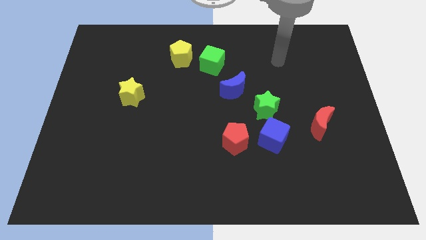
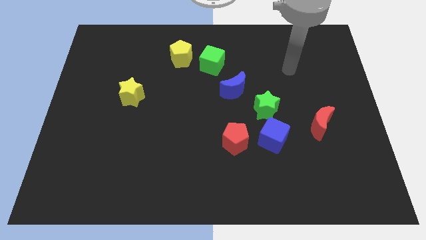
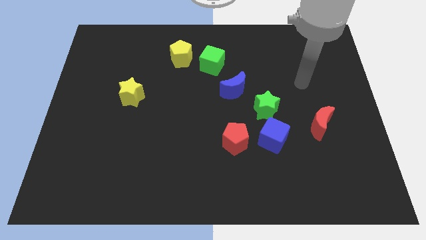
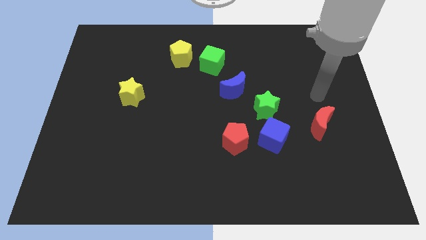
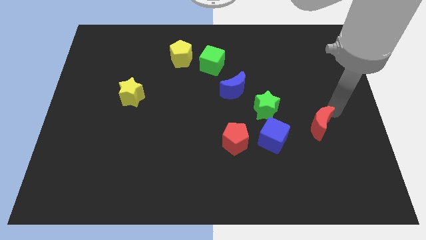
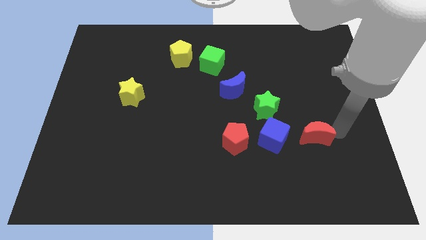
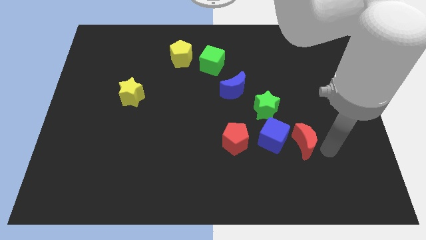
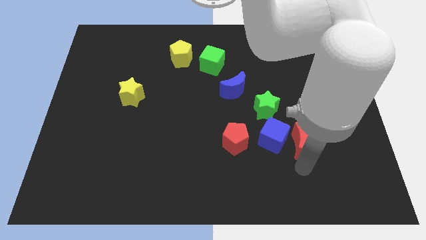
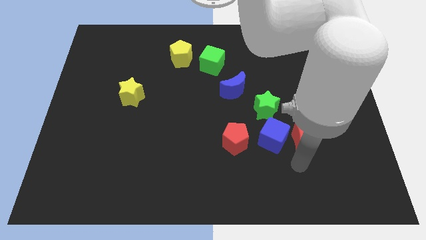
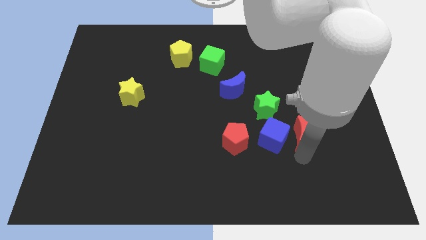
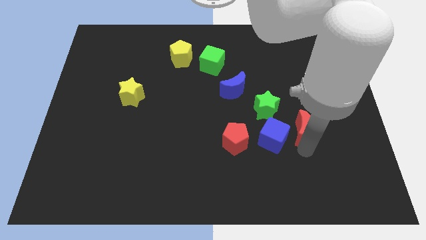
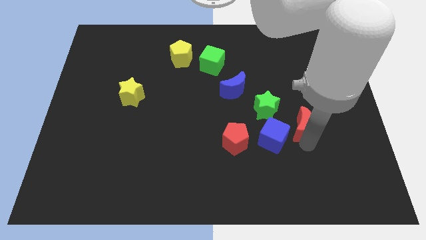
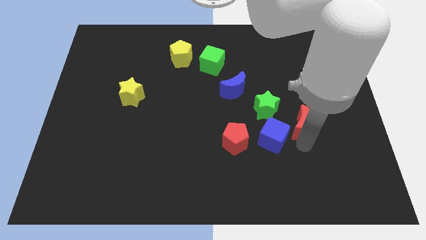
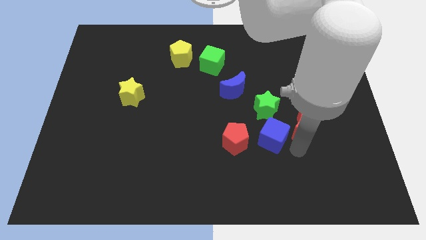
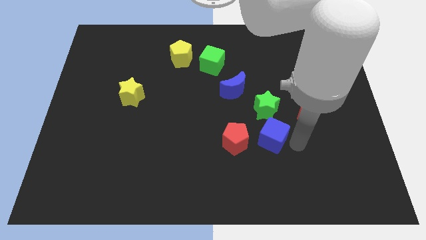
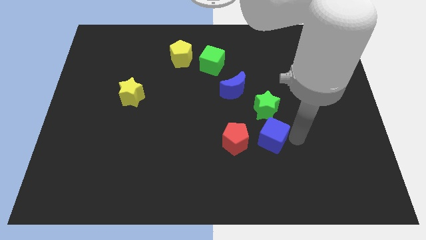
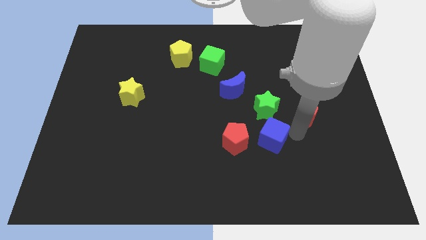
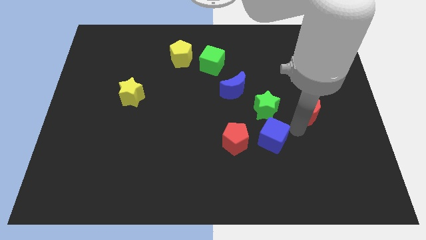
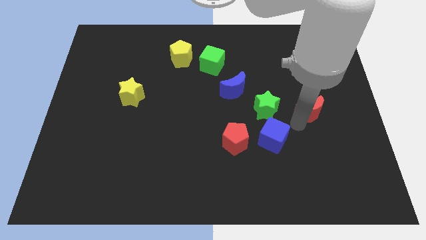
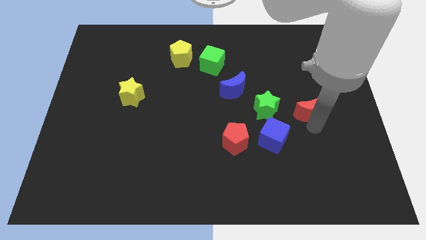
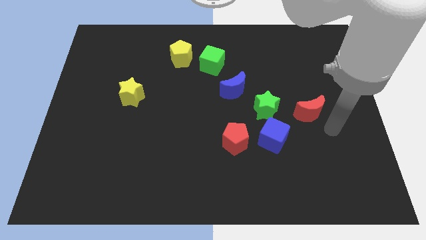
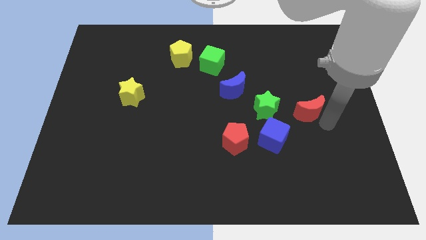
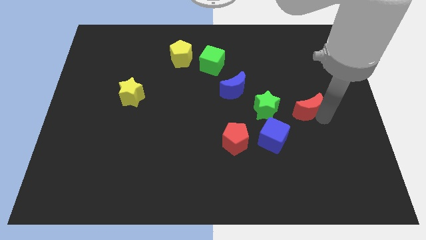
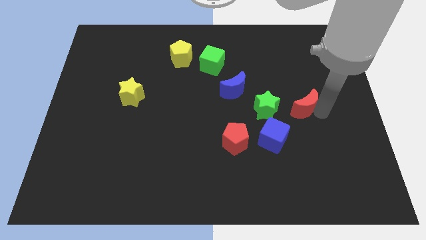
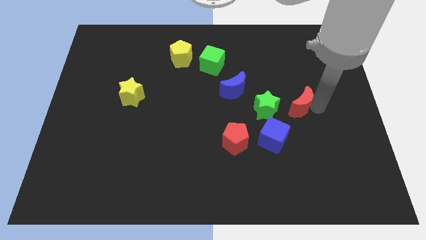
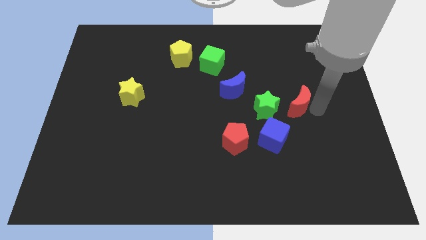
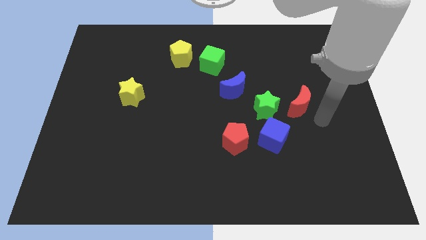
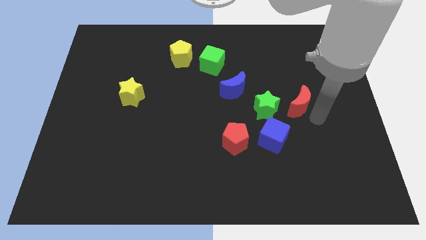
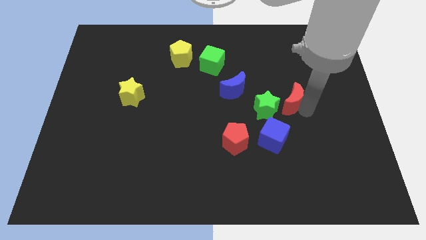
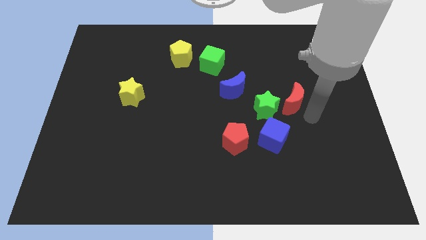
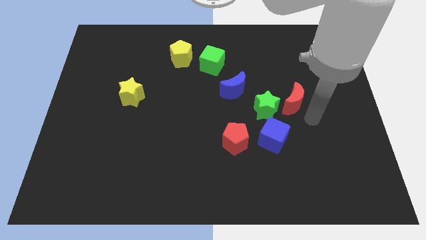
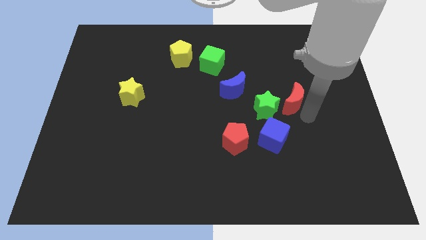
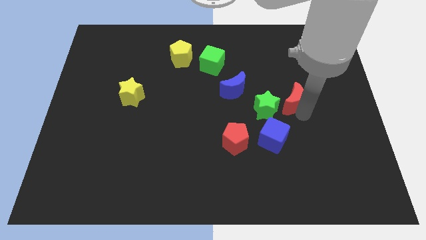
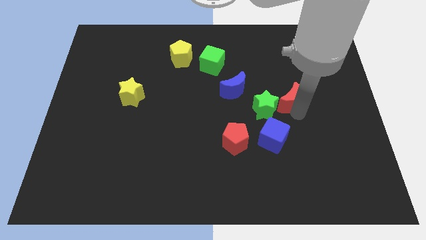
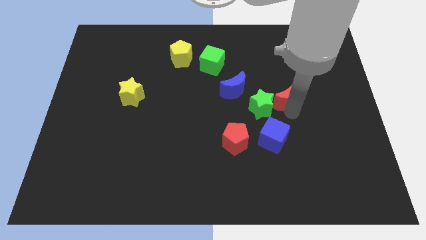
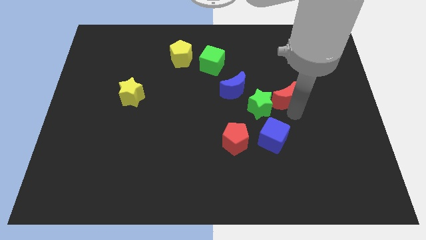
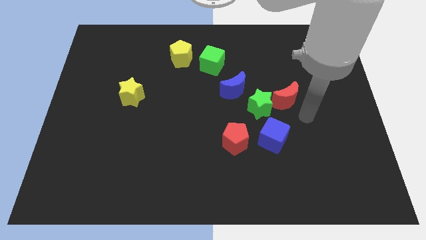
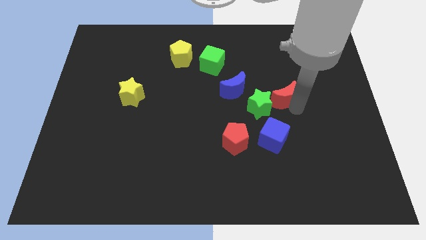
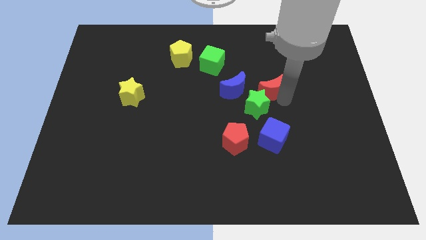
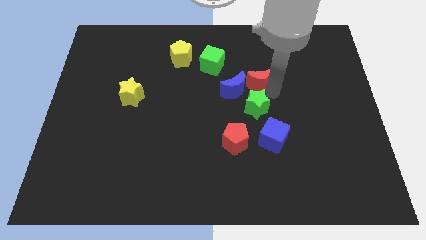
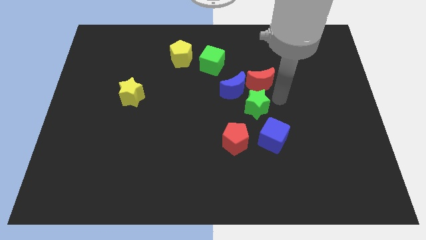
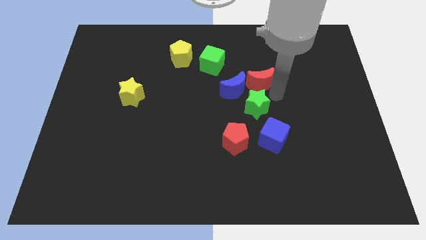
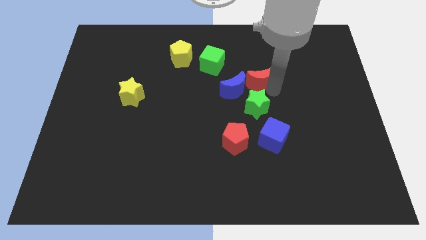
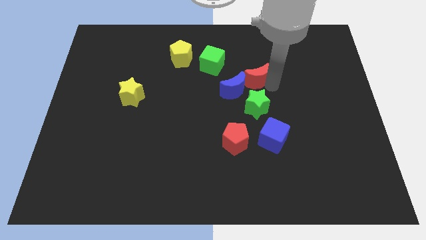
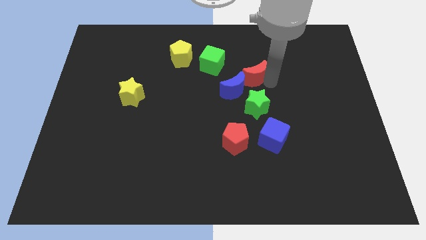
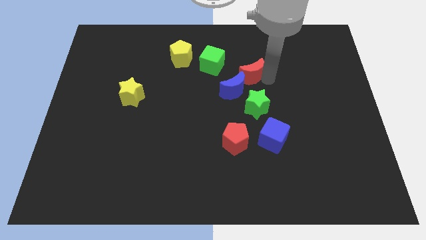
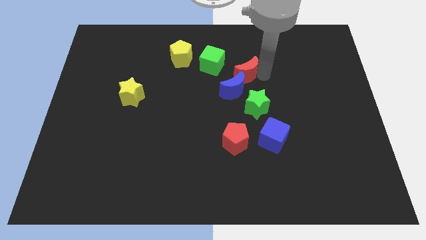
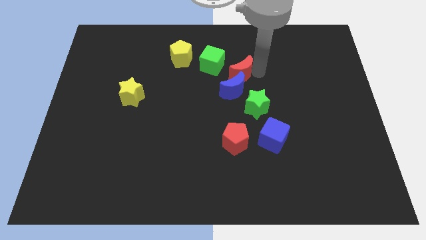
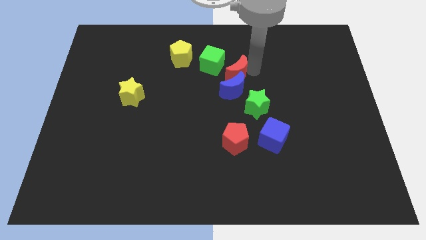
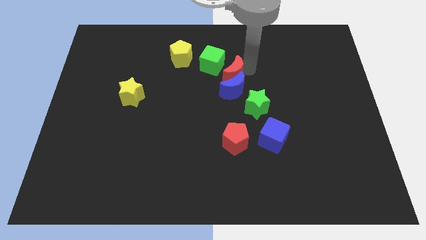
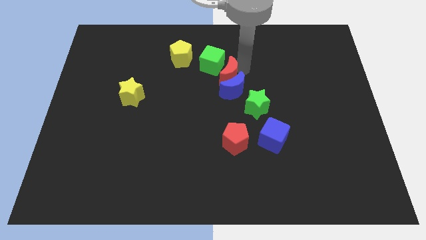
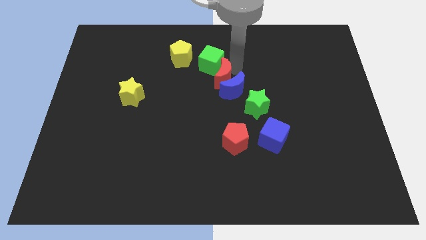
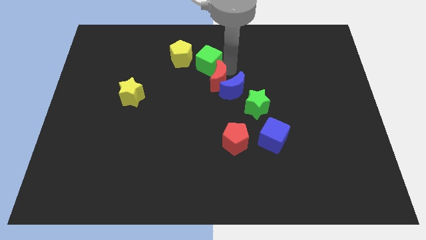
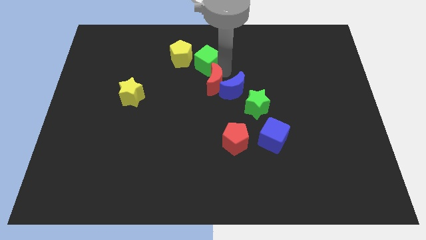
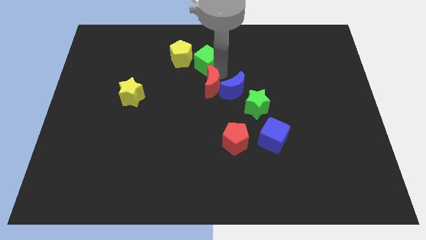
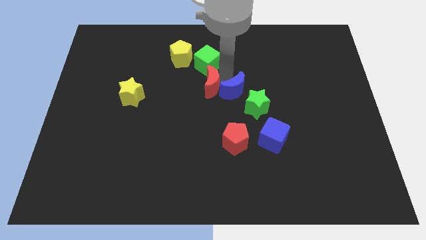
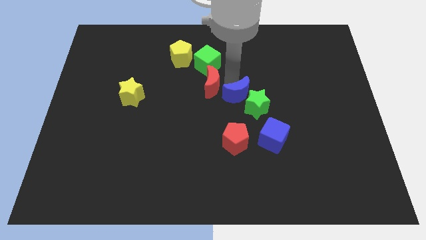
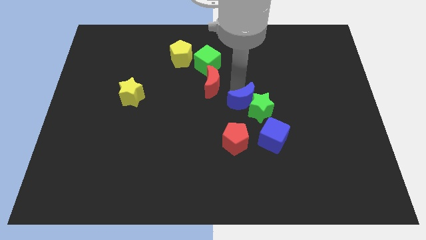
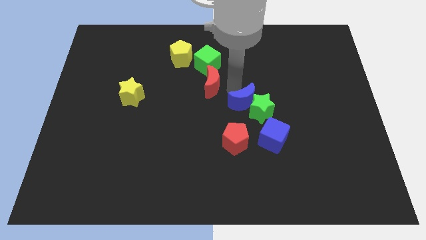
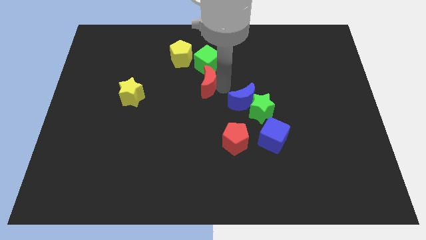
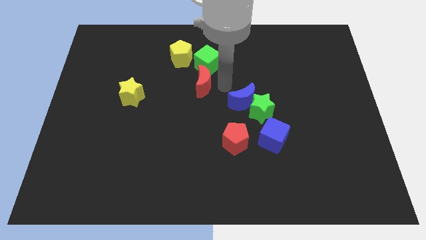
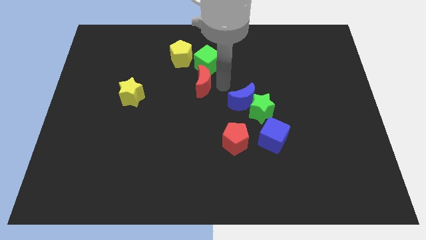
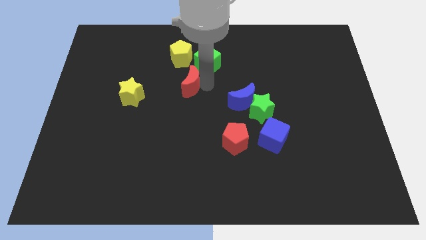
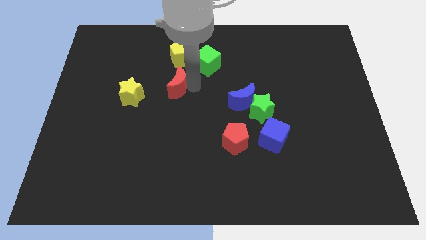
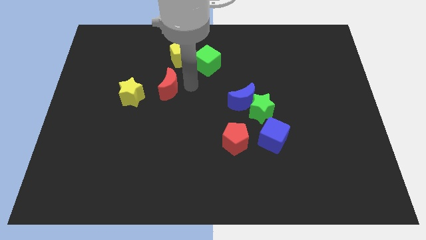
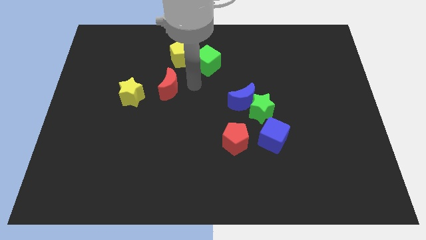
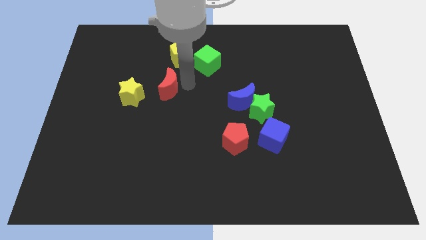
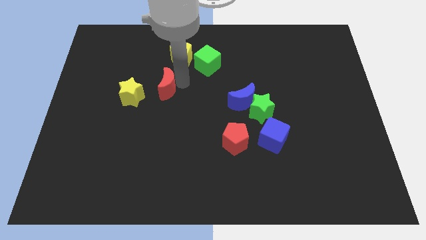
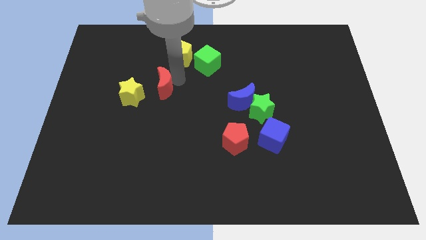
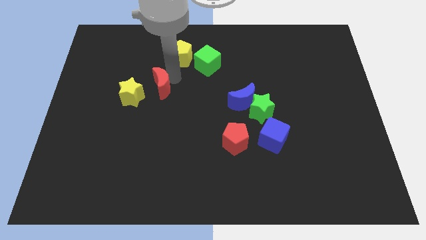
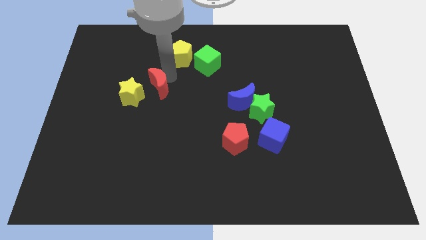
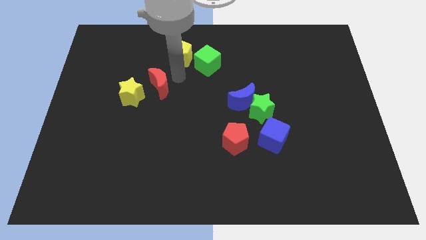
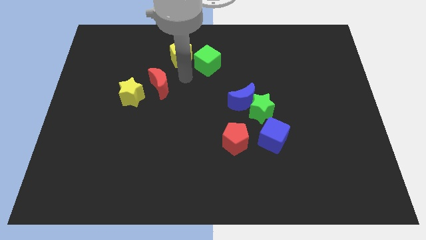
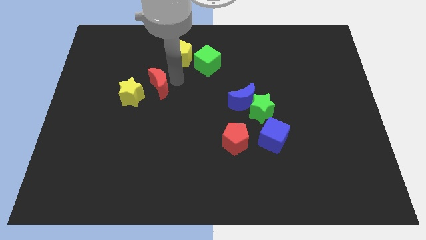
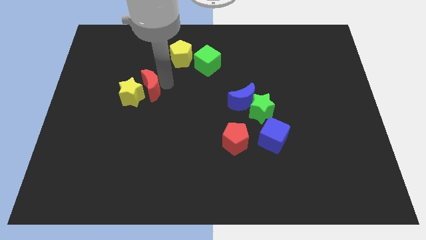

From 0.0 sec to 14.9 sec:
move the red moon to the yellow star
